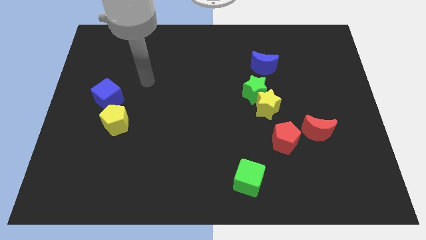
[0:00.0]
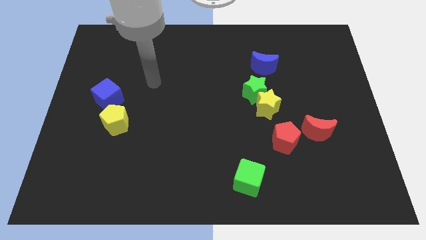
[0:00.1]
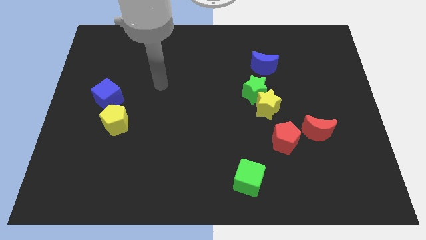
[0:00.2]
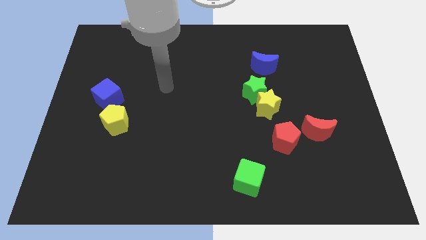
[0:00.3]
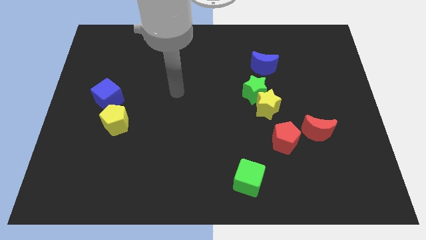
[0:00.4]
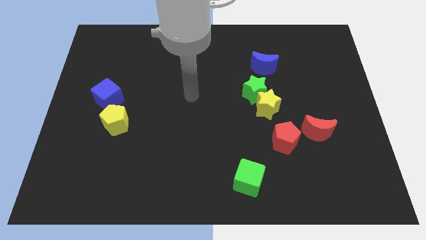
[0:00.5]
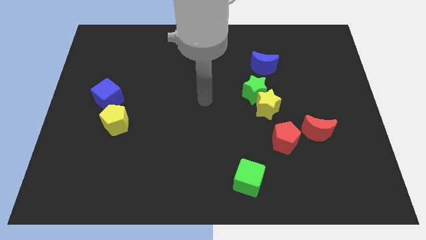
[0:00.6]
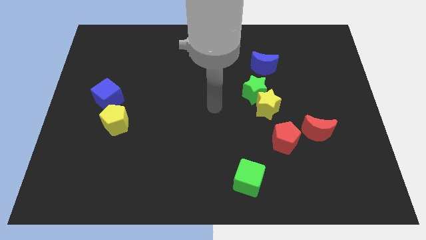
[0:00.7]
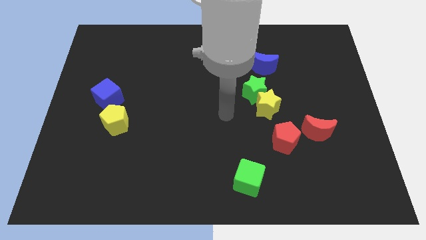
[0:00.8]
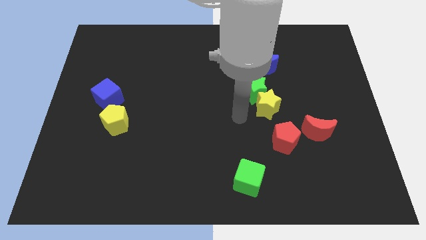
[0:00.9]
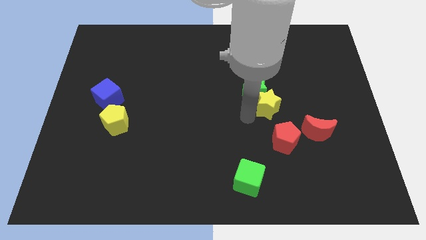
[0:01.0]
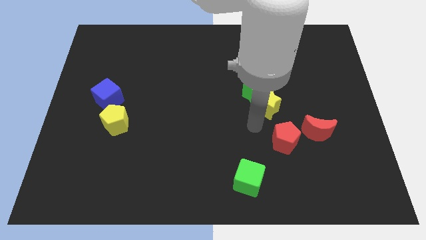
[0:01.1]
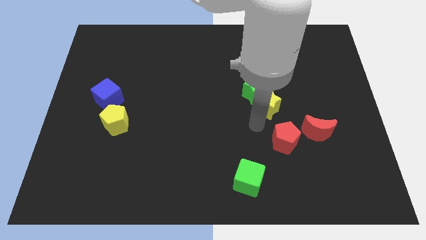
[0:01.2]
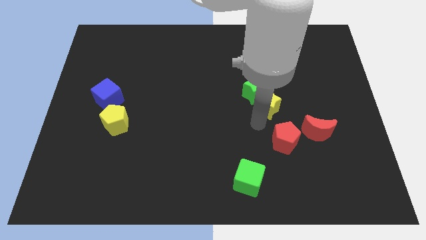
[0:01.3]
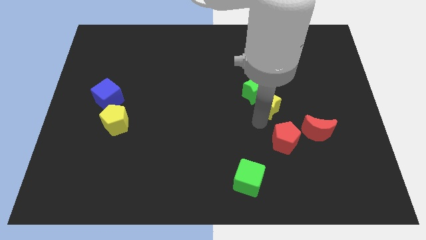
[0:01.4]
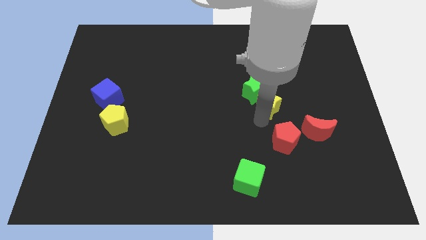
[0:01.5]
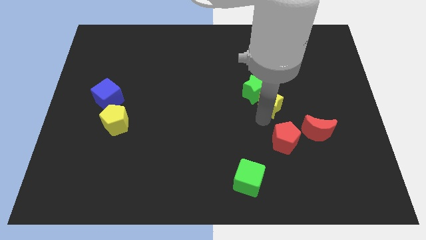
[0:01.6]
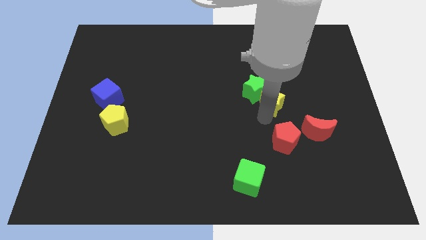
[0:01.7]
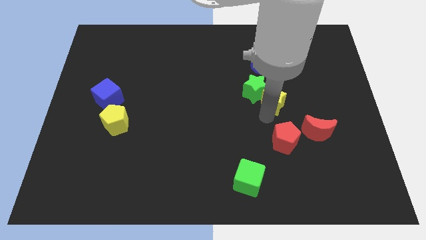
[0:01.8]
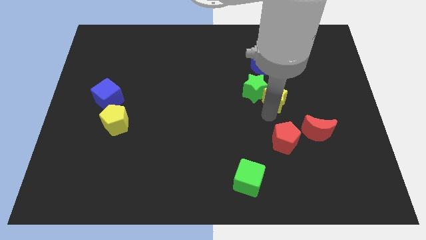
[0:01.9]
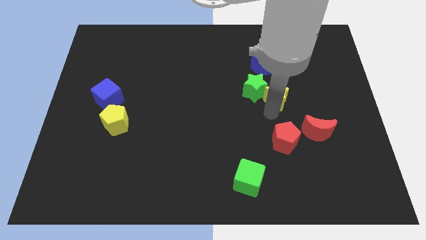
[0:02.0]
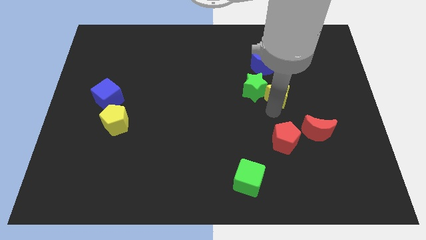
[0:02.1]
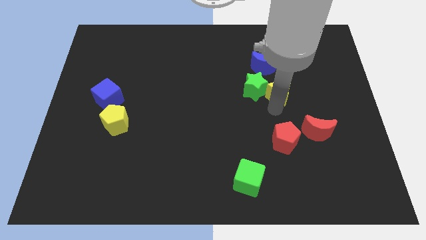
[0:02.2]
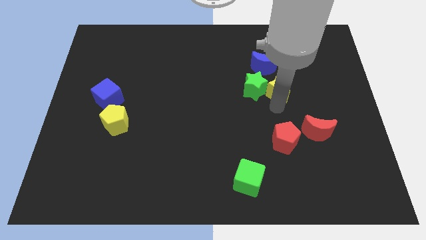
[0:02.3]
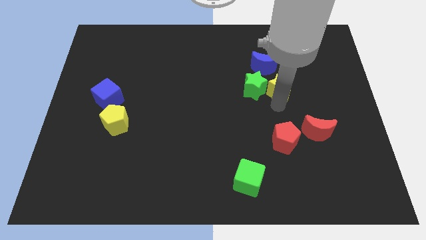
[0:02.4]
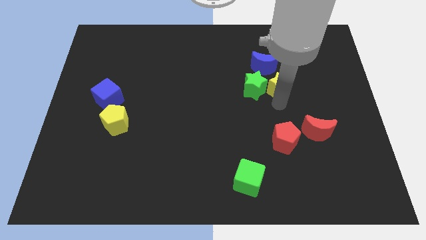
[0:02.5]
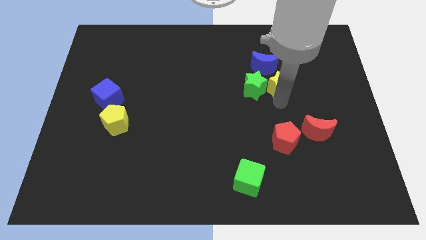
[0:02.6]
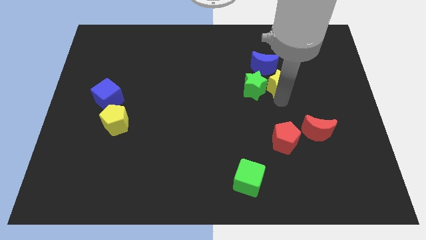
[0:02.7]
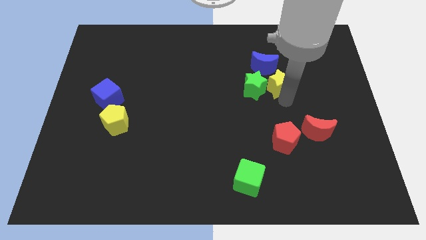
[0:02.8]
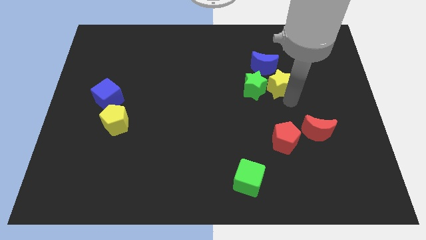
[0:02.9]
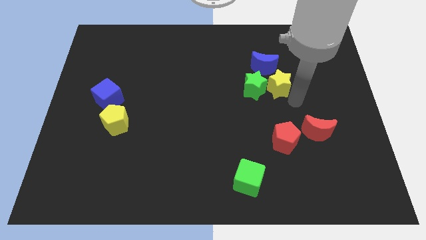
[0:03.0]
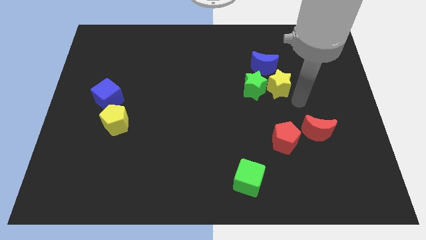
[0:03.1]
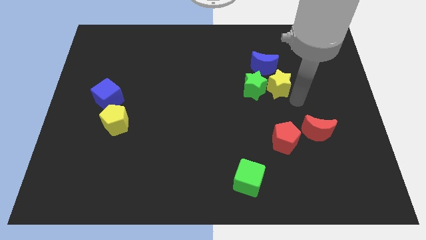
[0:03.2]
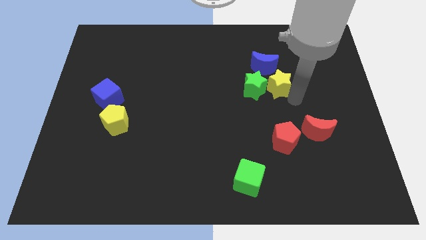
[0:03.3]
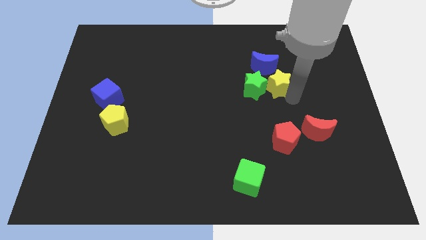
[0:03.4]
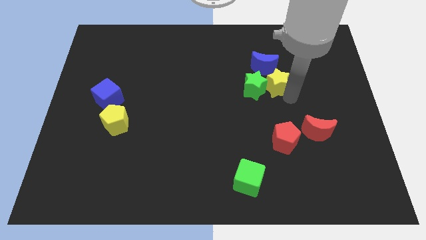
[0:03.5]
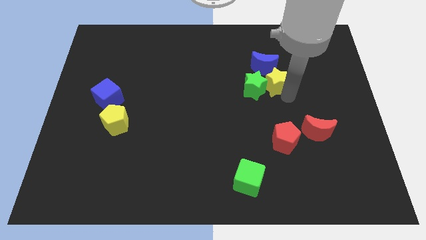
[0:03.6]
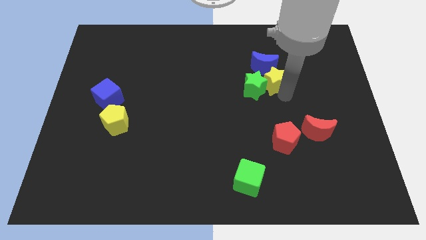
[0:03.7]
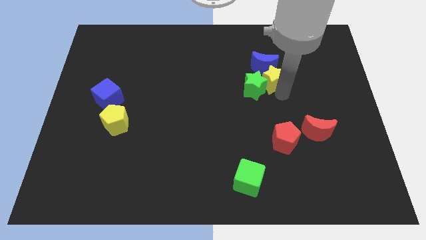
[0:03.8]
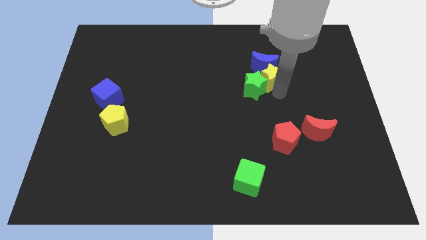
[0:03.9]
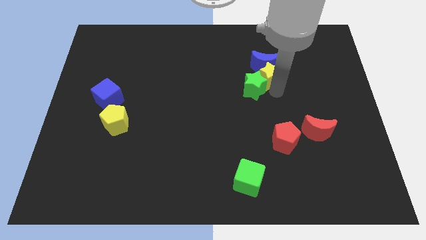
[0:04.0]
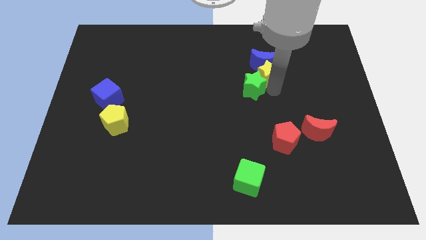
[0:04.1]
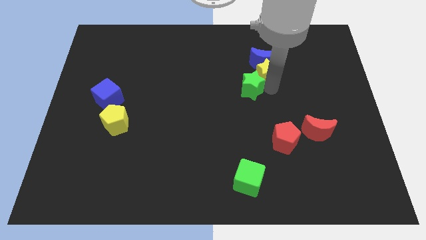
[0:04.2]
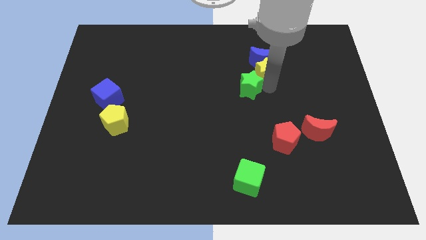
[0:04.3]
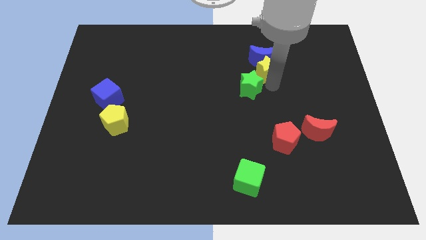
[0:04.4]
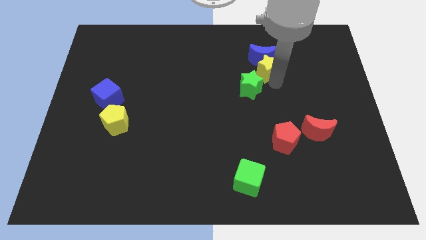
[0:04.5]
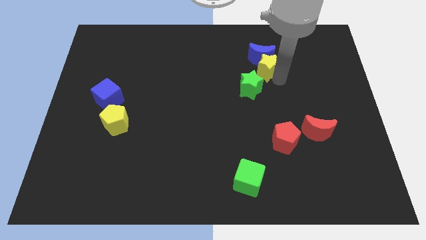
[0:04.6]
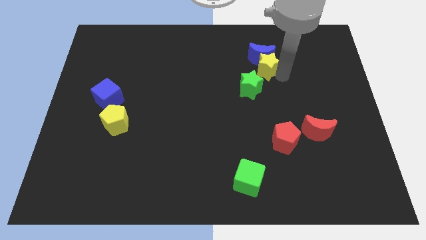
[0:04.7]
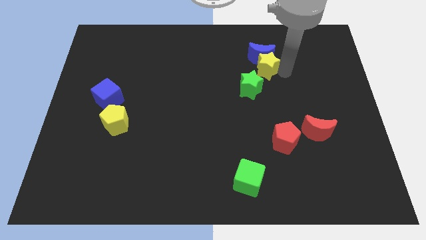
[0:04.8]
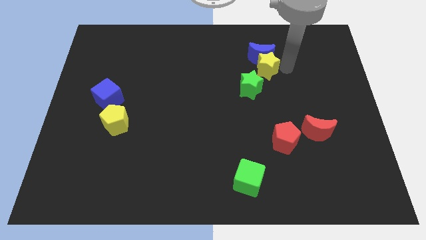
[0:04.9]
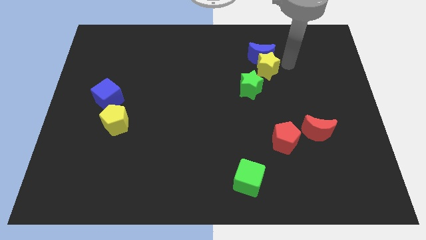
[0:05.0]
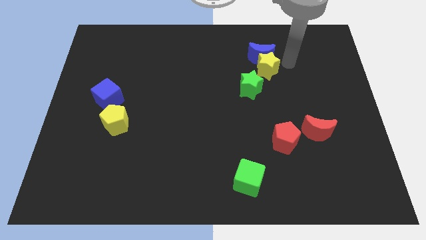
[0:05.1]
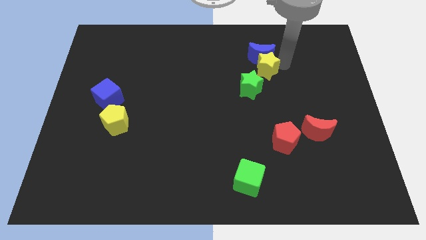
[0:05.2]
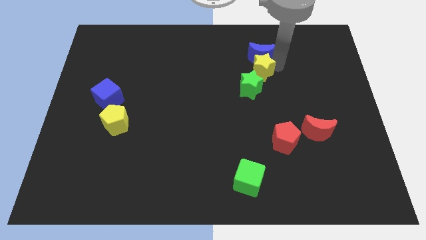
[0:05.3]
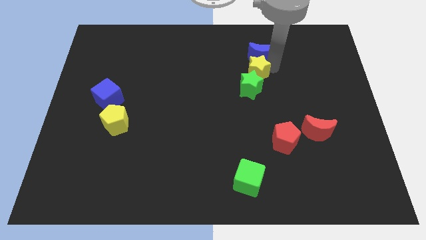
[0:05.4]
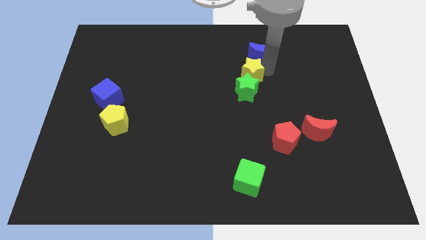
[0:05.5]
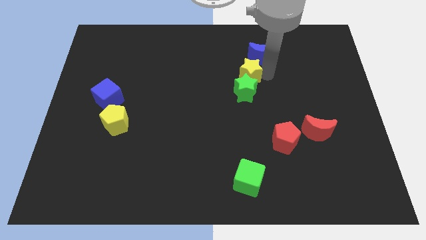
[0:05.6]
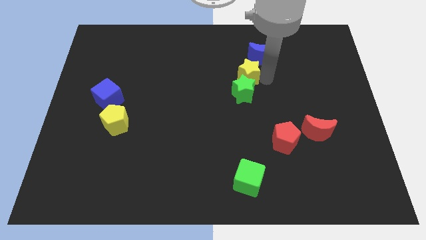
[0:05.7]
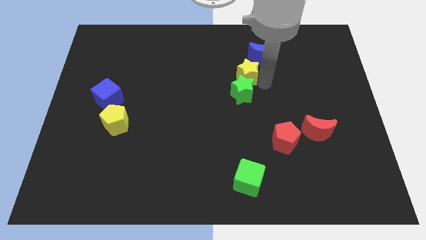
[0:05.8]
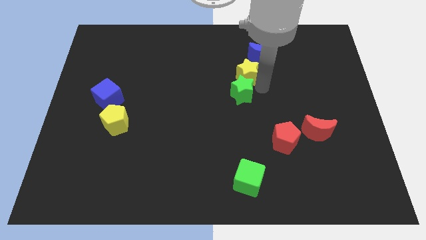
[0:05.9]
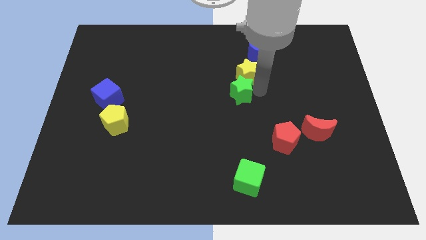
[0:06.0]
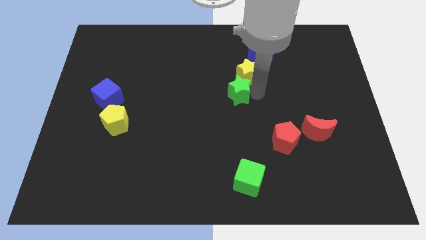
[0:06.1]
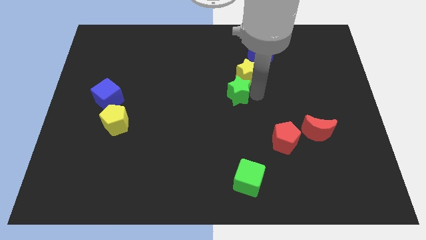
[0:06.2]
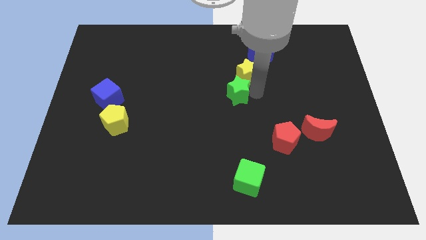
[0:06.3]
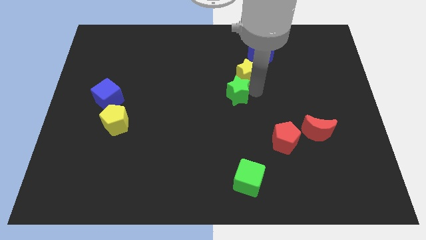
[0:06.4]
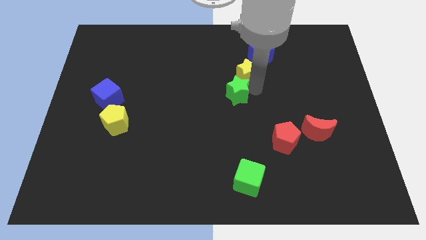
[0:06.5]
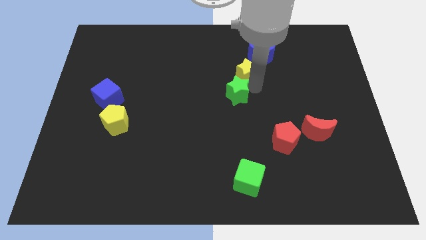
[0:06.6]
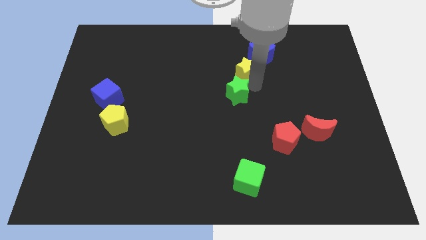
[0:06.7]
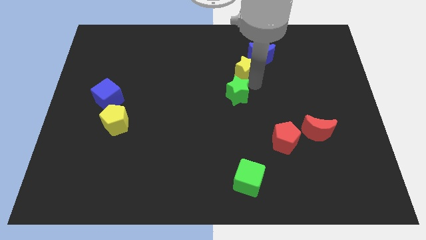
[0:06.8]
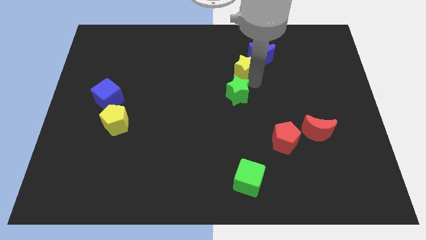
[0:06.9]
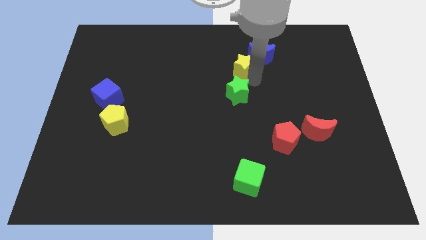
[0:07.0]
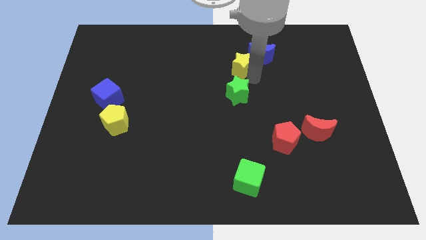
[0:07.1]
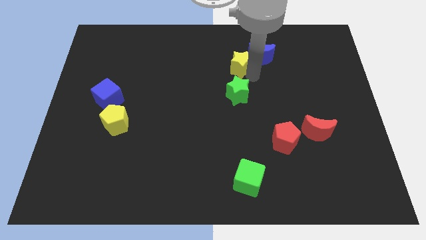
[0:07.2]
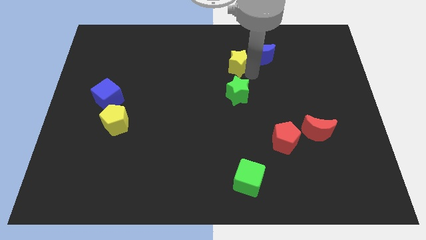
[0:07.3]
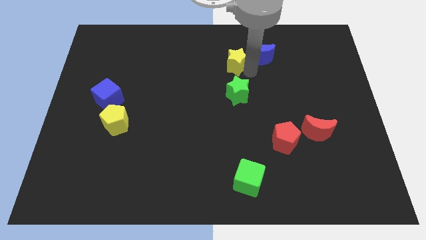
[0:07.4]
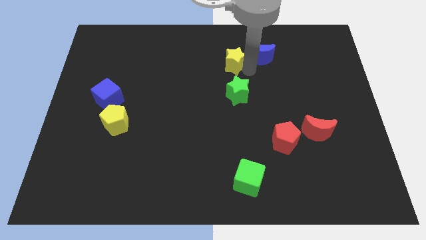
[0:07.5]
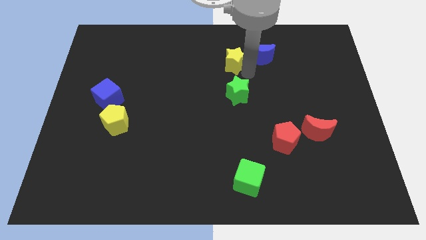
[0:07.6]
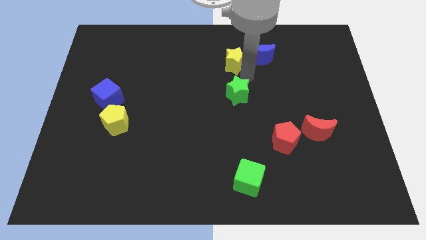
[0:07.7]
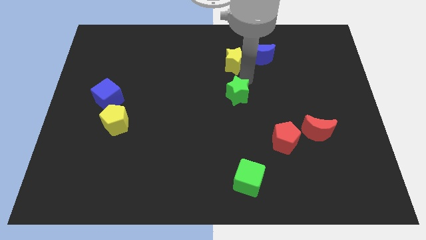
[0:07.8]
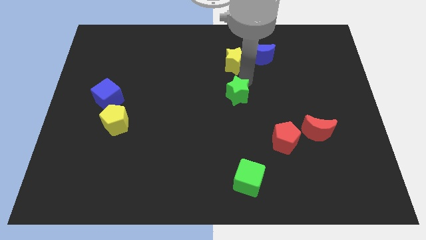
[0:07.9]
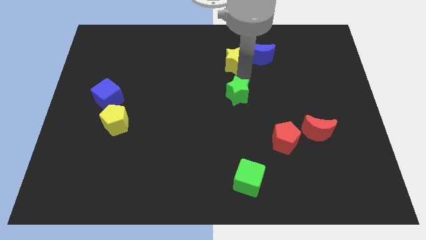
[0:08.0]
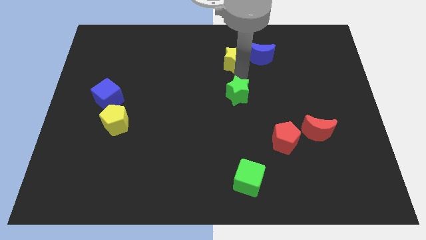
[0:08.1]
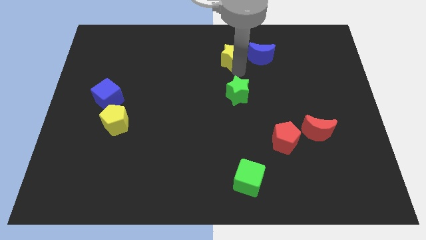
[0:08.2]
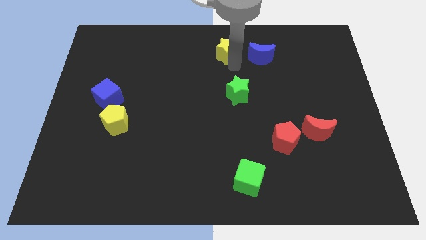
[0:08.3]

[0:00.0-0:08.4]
put the yellow star to the top
